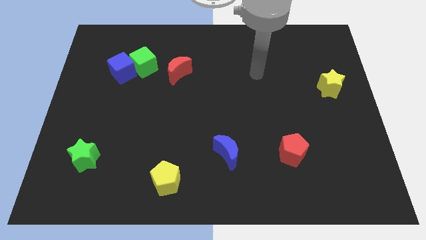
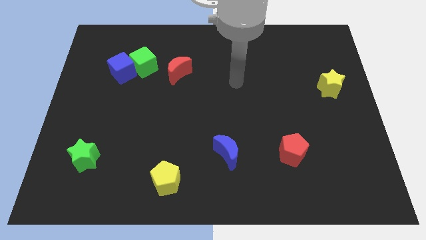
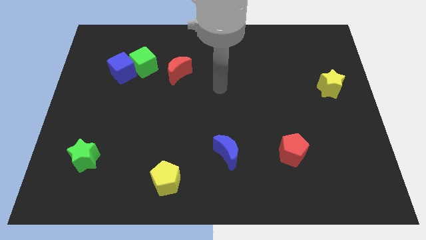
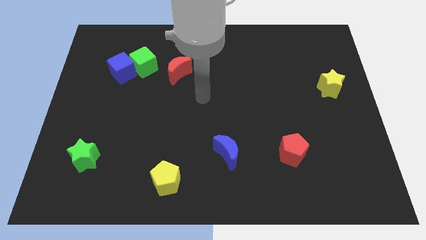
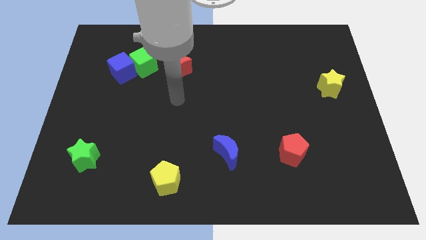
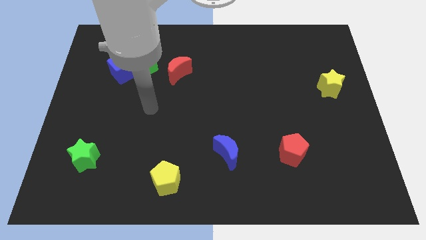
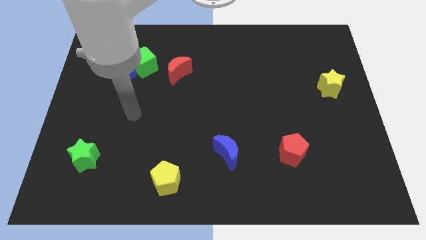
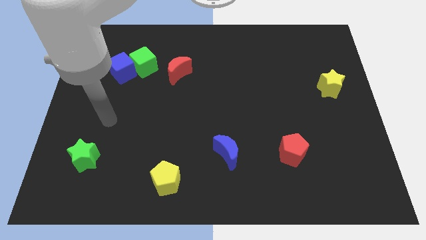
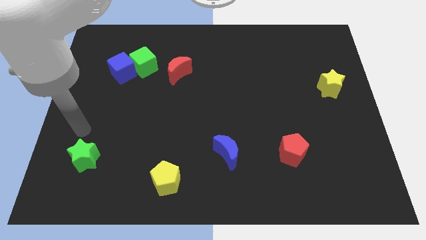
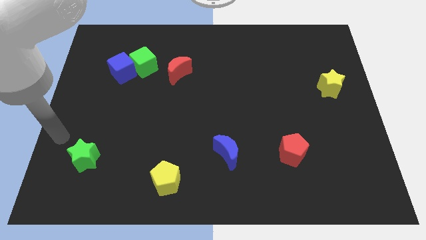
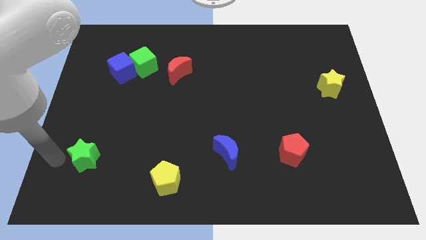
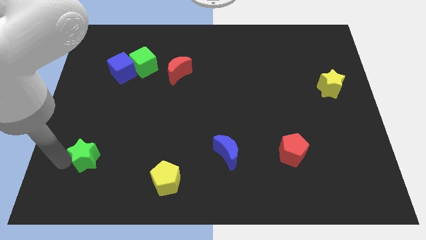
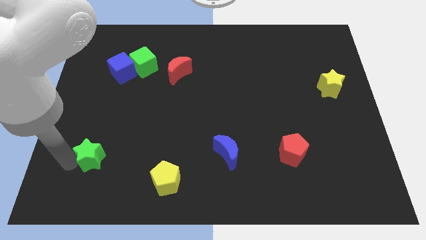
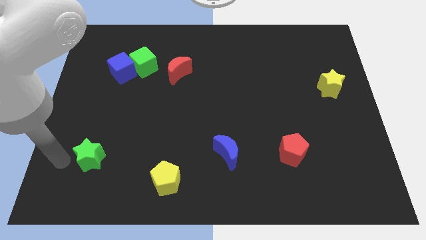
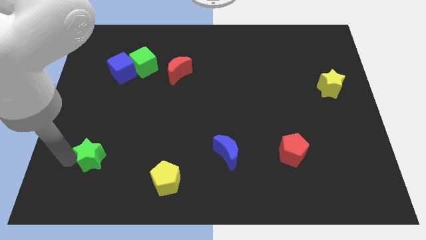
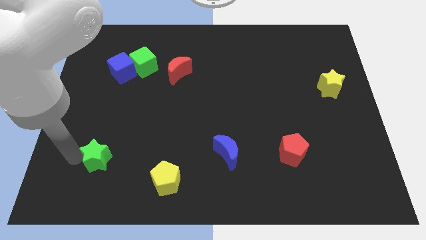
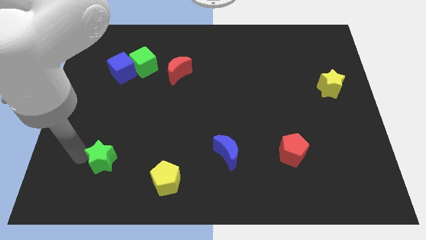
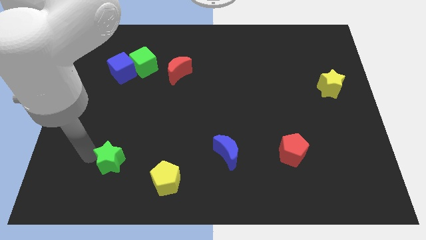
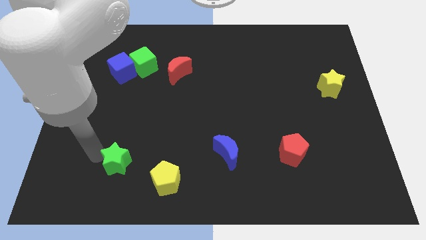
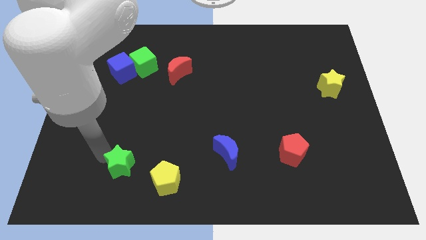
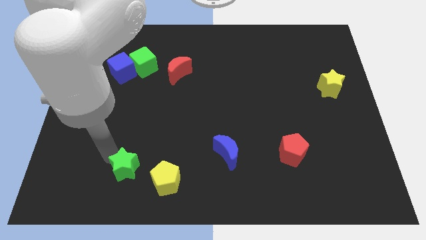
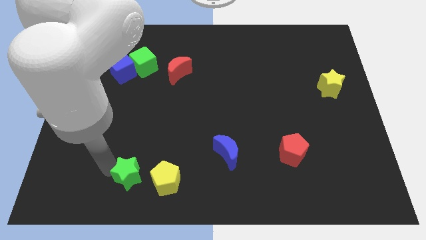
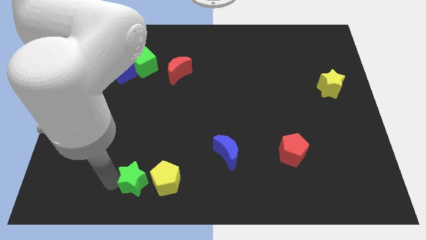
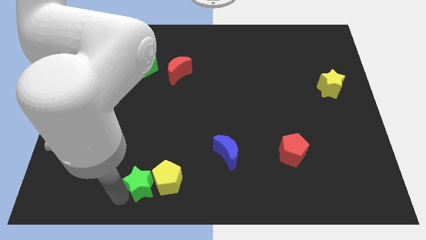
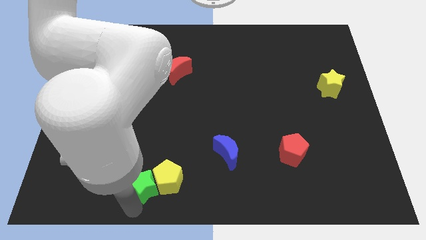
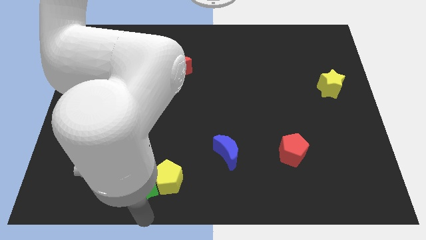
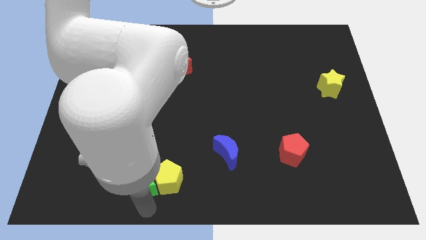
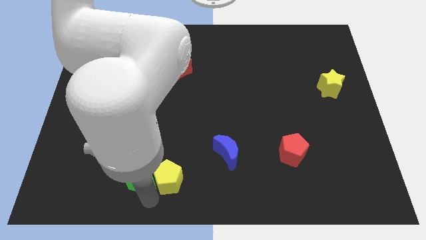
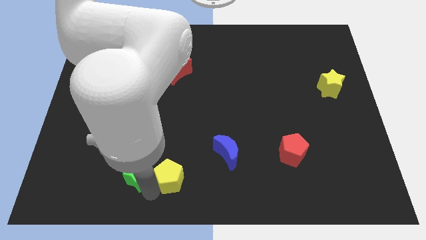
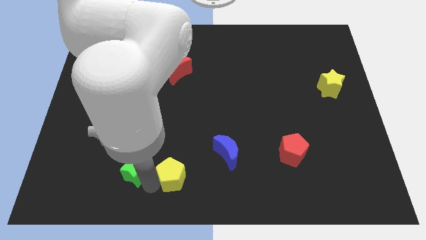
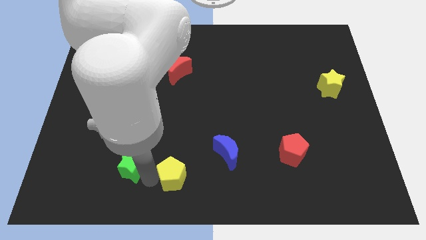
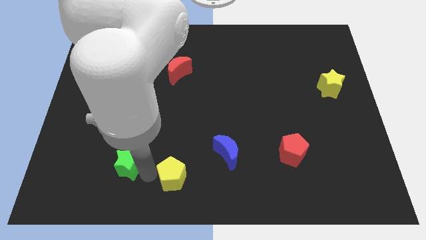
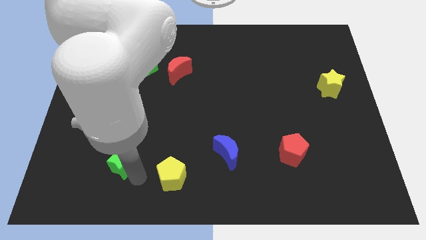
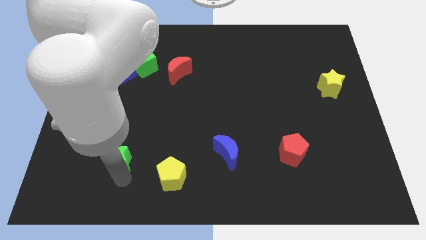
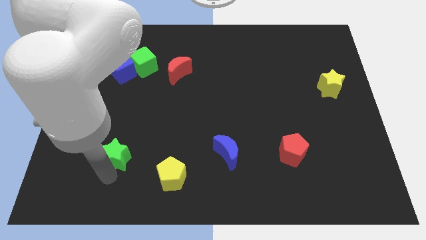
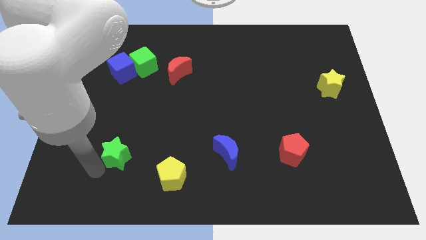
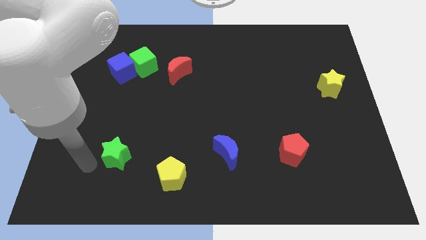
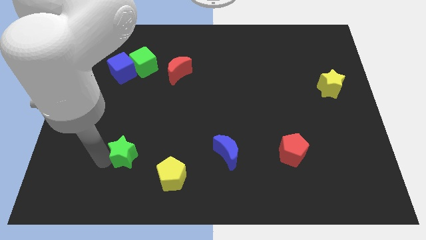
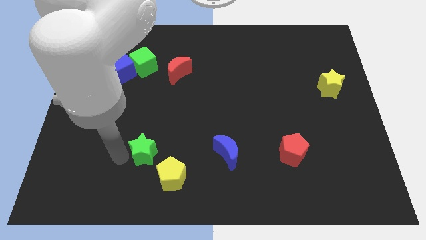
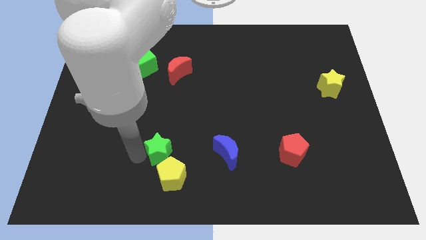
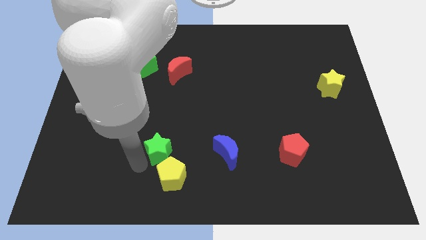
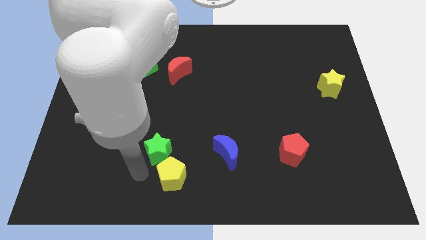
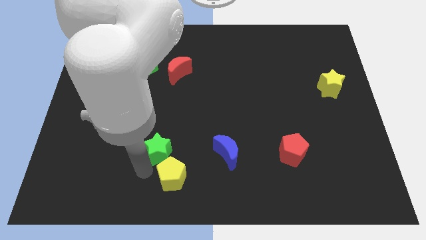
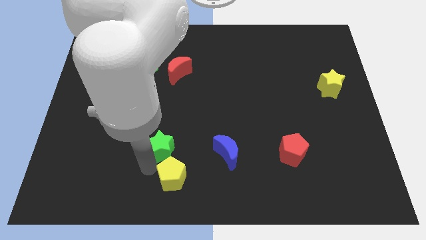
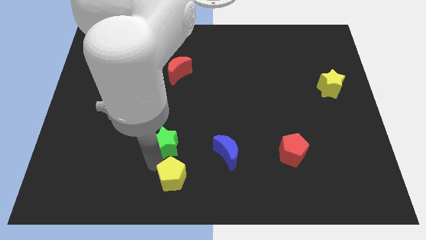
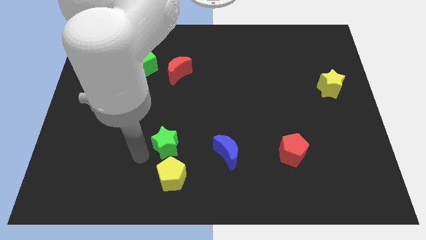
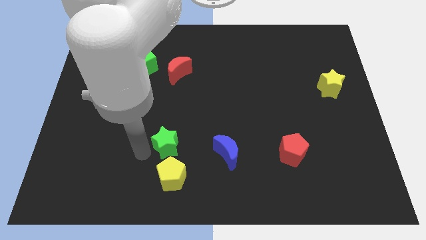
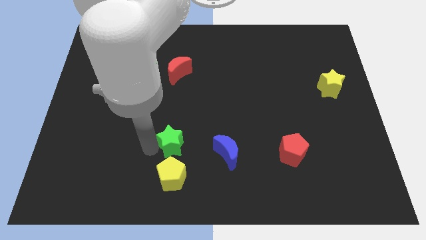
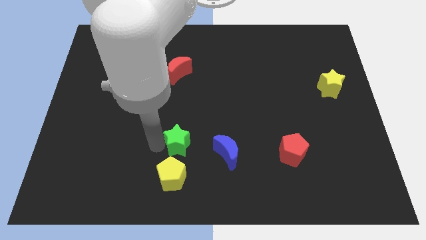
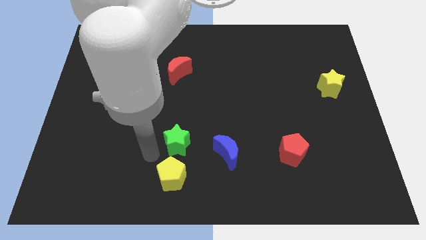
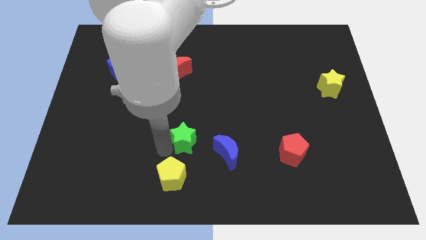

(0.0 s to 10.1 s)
slide the green star diagonally up and to the left of the blue moon

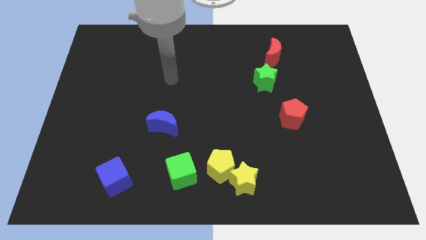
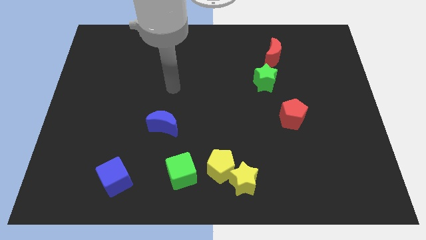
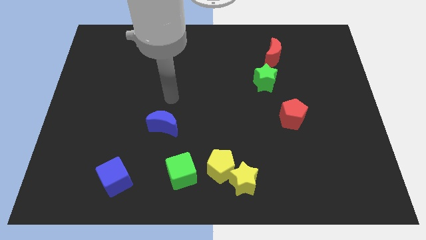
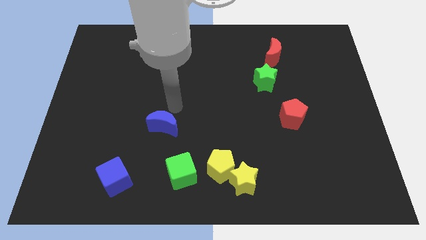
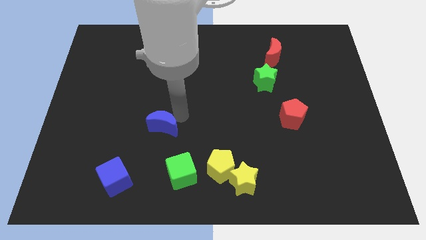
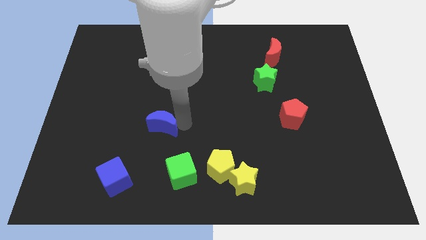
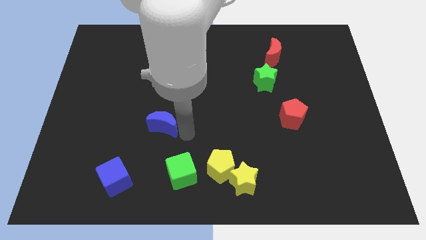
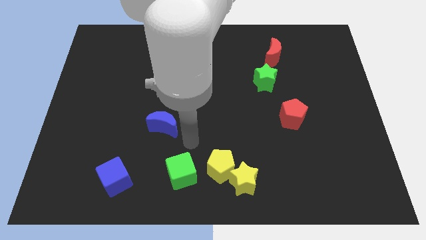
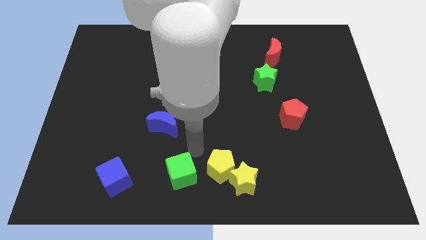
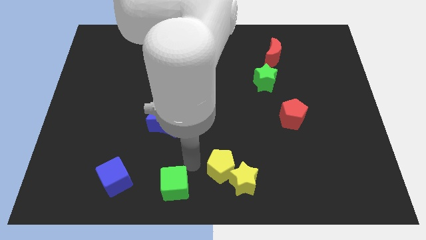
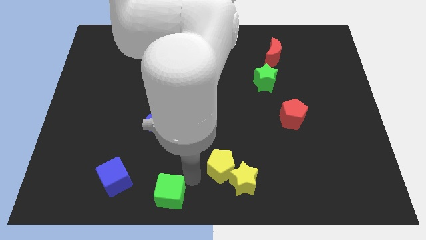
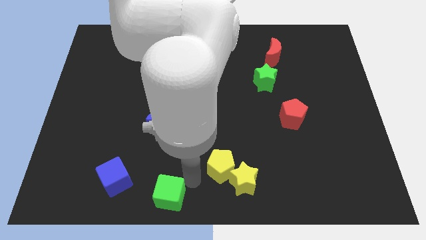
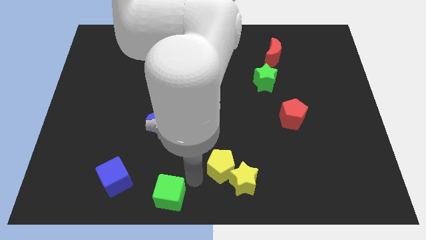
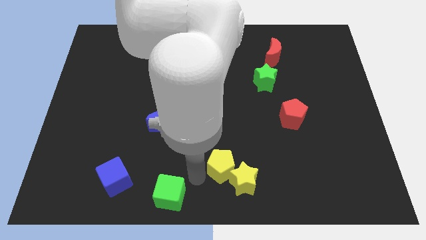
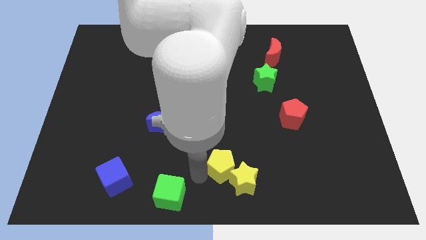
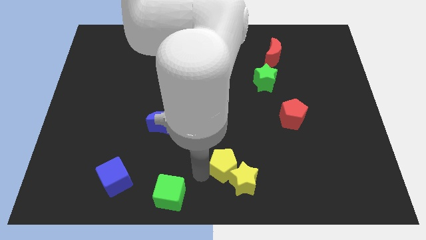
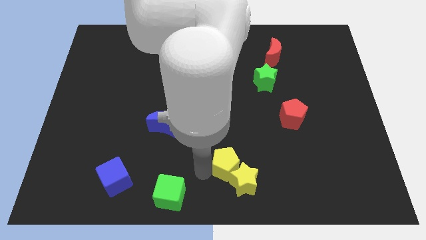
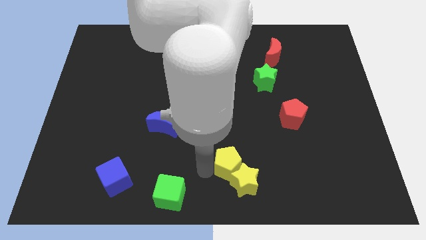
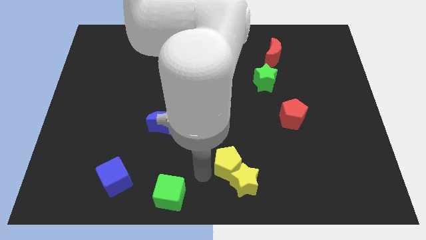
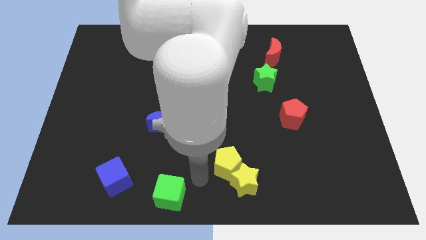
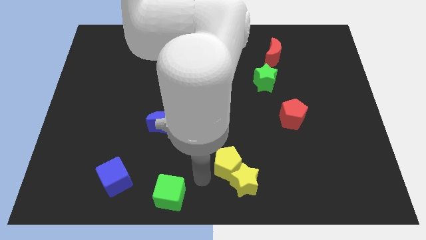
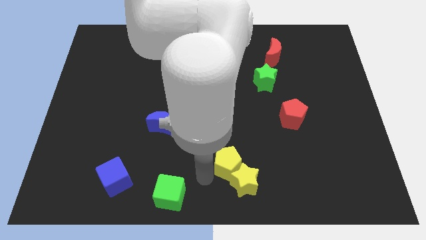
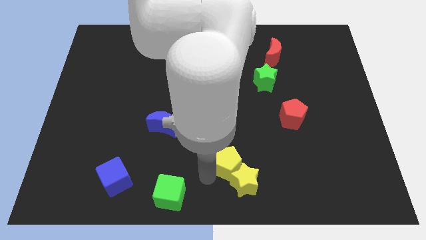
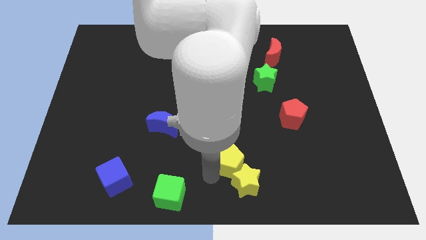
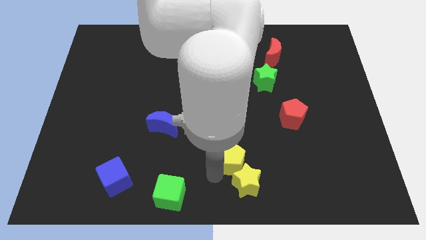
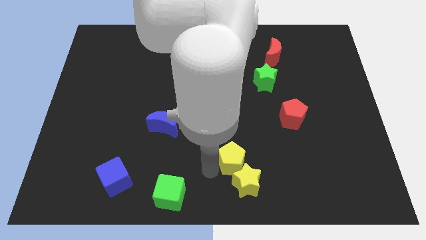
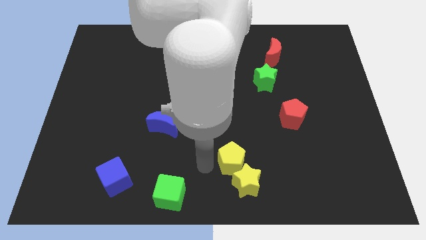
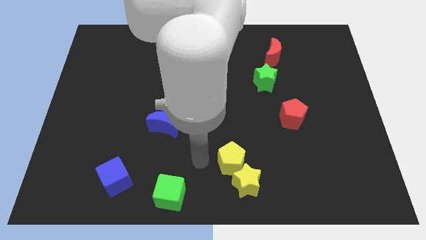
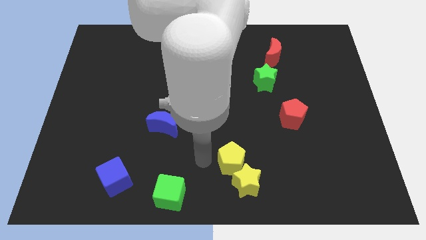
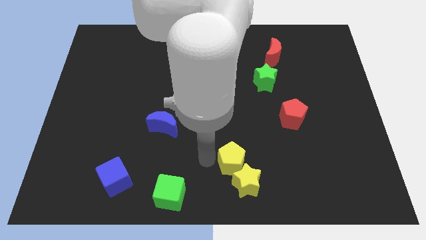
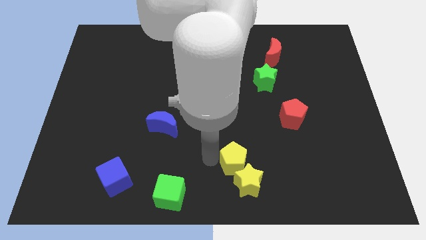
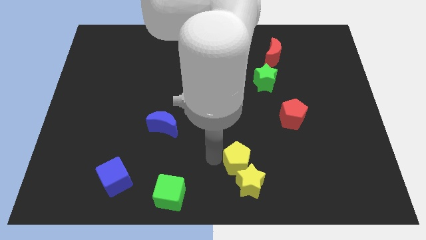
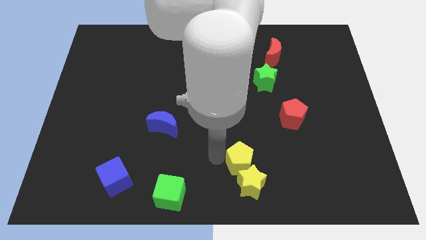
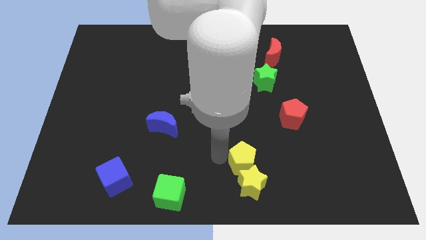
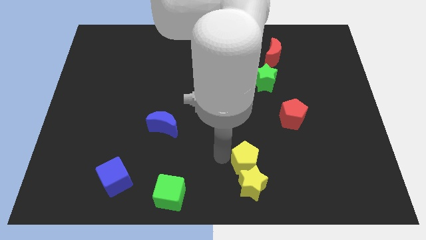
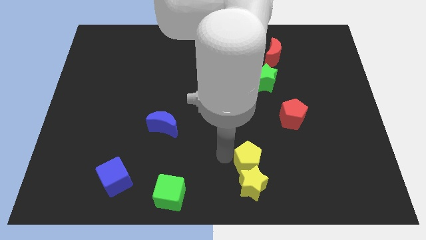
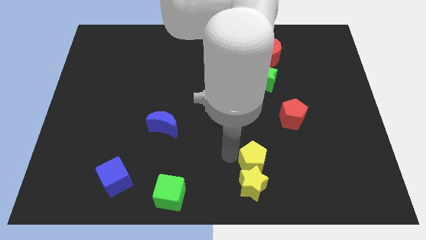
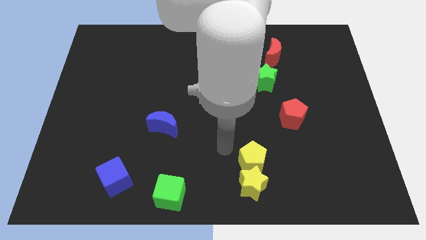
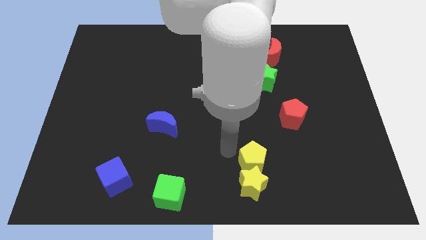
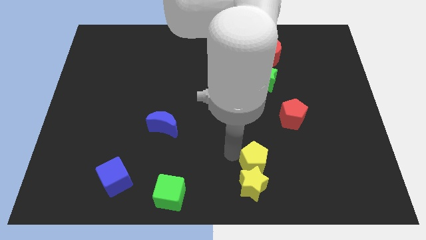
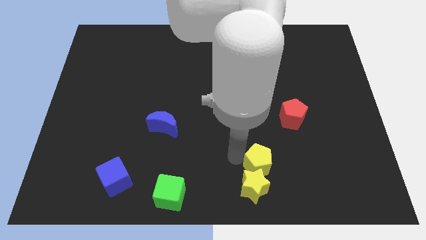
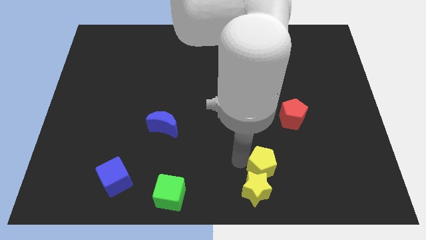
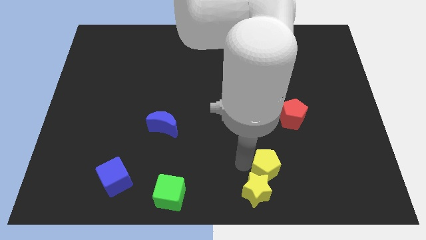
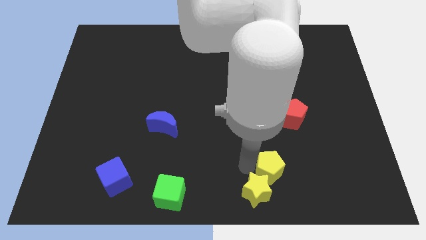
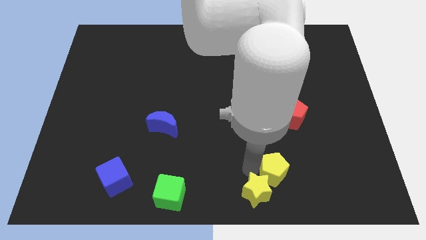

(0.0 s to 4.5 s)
put the yellow pentagon to the right side of the yellow star
